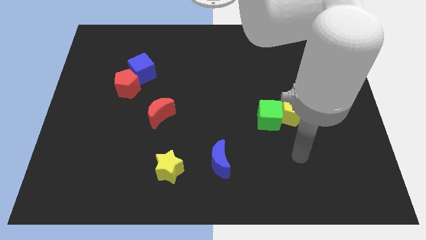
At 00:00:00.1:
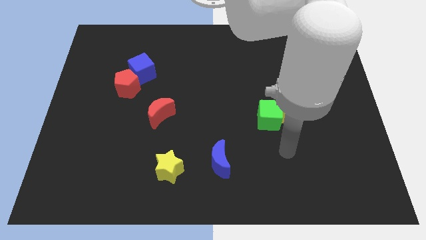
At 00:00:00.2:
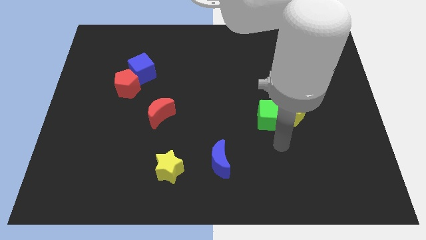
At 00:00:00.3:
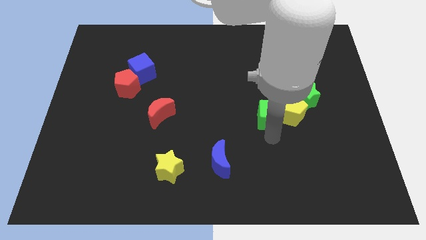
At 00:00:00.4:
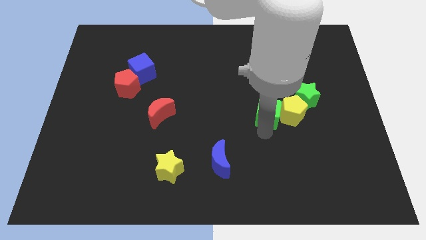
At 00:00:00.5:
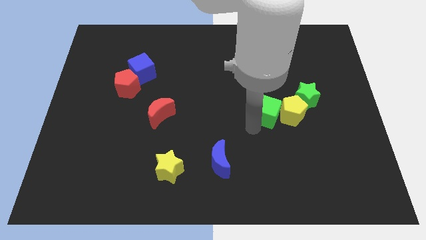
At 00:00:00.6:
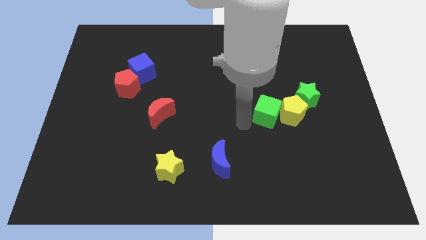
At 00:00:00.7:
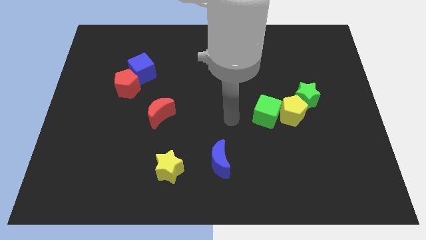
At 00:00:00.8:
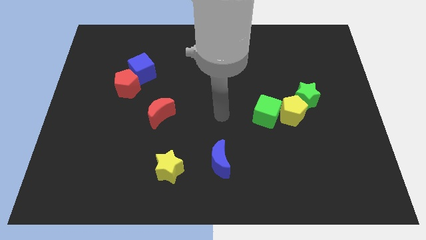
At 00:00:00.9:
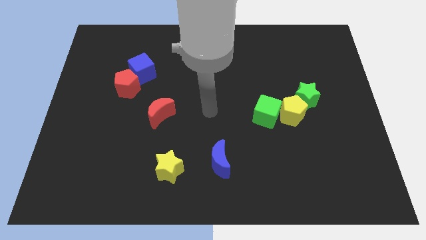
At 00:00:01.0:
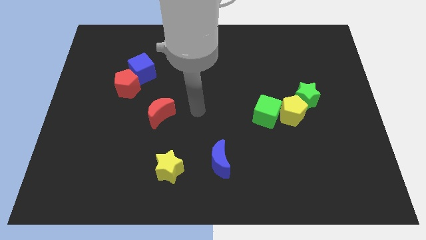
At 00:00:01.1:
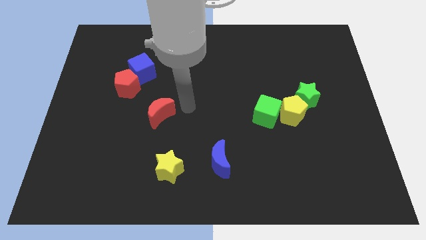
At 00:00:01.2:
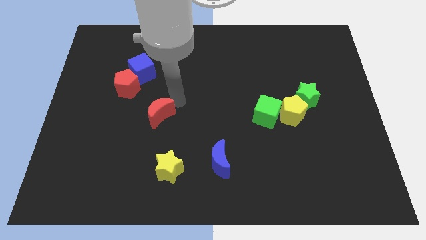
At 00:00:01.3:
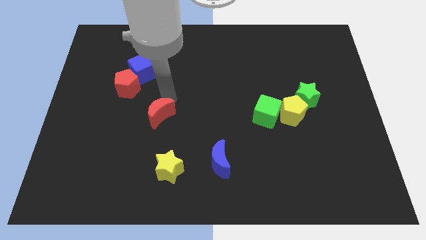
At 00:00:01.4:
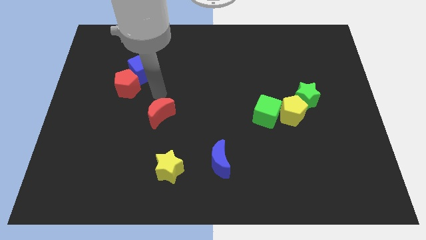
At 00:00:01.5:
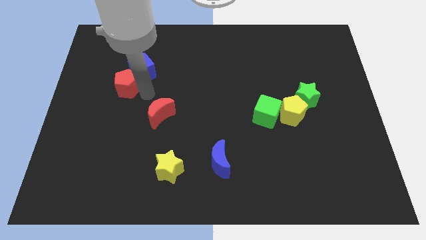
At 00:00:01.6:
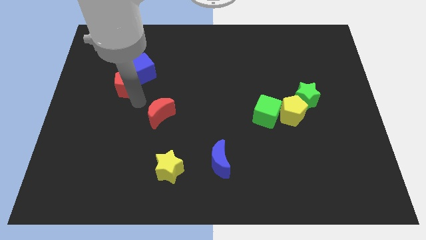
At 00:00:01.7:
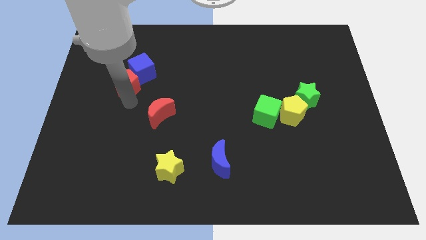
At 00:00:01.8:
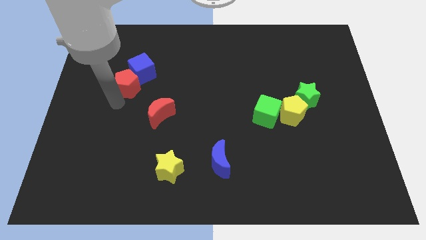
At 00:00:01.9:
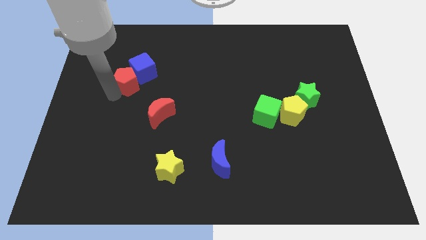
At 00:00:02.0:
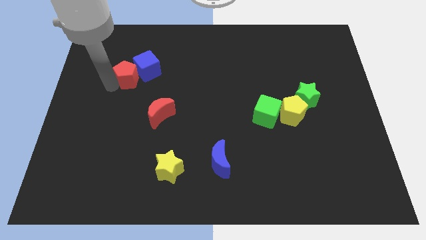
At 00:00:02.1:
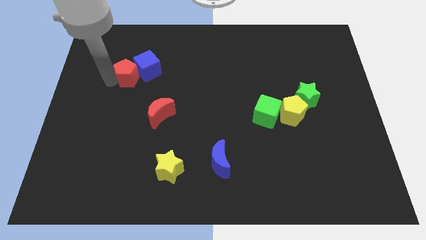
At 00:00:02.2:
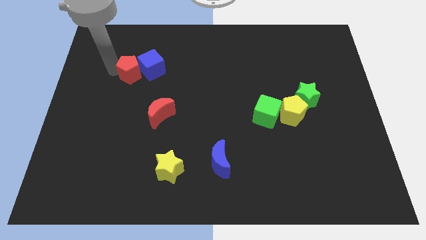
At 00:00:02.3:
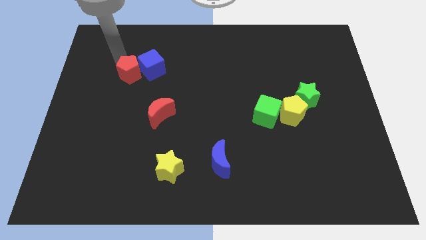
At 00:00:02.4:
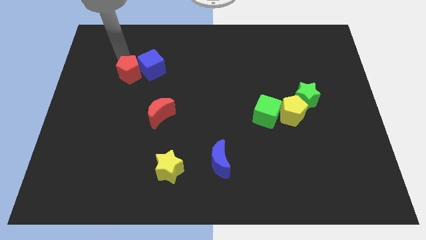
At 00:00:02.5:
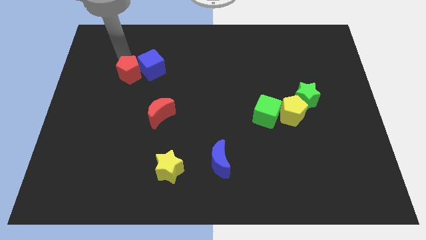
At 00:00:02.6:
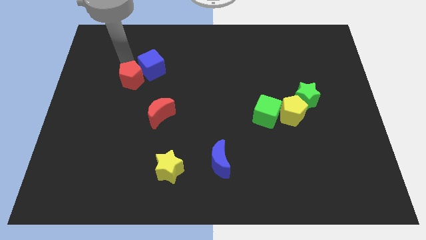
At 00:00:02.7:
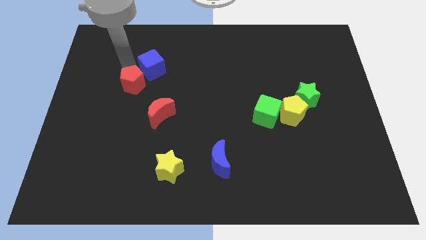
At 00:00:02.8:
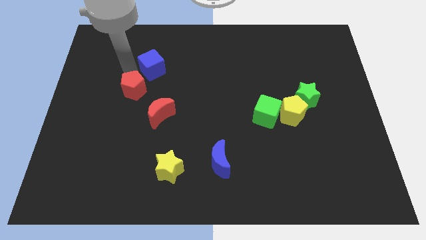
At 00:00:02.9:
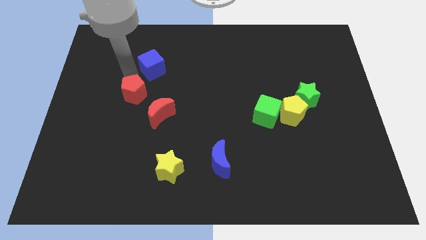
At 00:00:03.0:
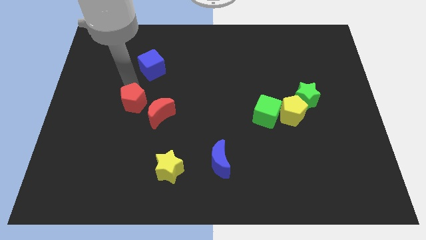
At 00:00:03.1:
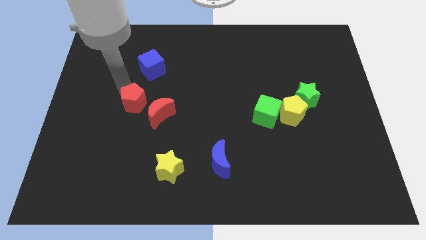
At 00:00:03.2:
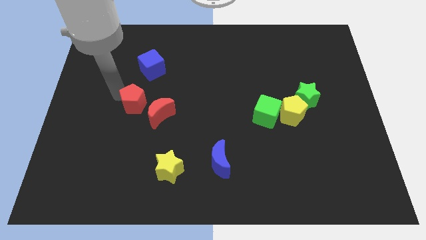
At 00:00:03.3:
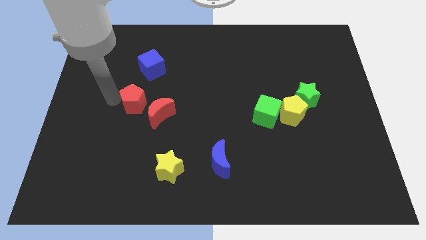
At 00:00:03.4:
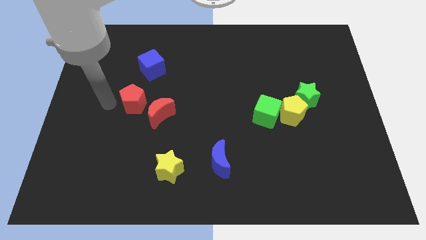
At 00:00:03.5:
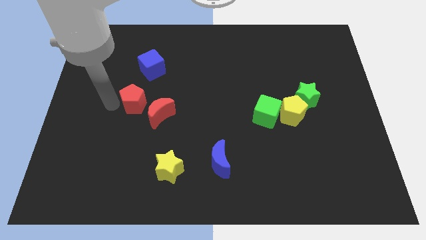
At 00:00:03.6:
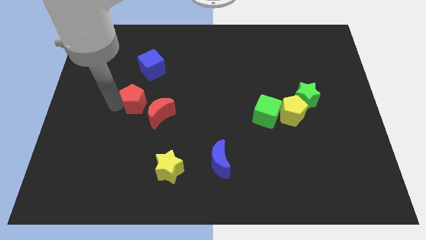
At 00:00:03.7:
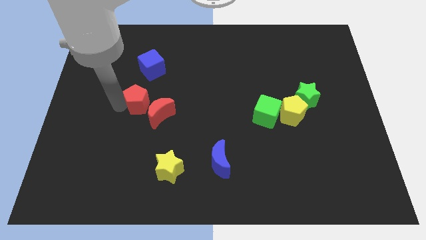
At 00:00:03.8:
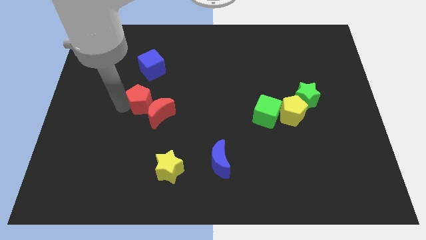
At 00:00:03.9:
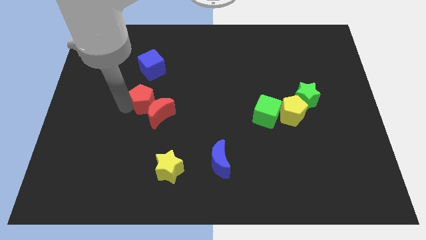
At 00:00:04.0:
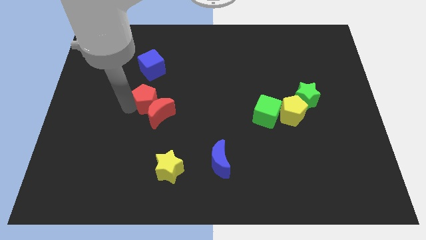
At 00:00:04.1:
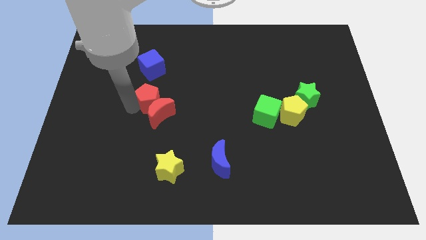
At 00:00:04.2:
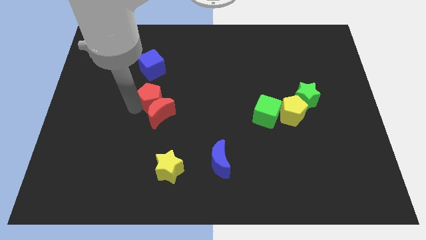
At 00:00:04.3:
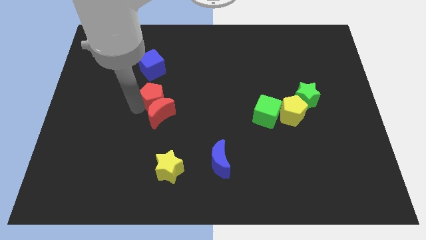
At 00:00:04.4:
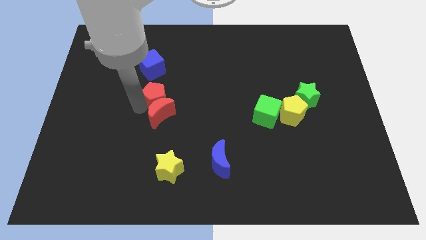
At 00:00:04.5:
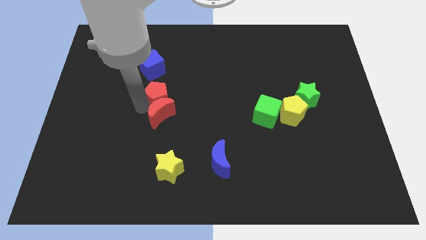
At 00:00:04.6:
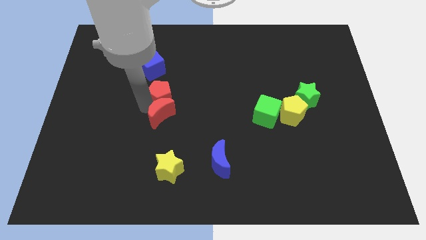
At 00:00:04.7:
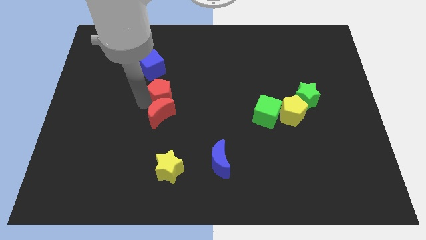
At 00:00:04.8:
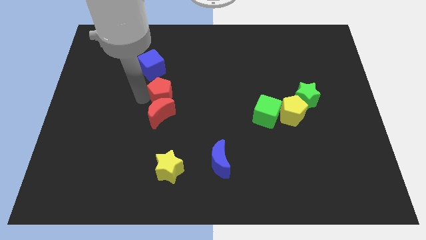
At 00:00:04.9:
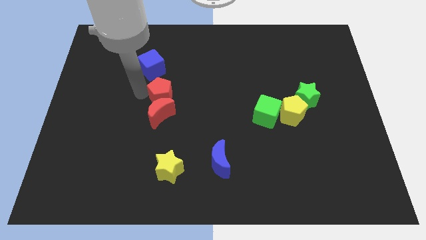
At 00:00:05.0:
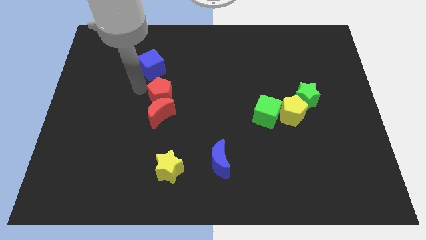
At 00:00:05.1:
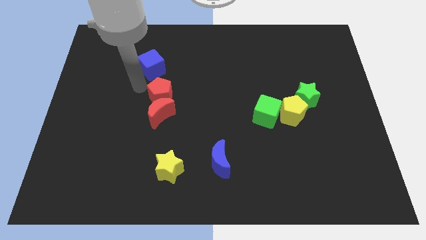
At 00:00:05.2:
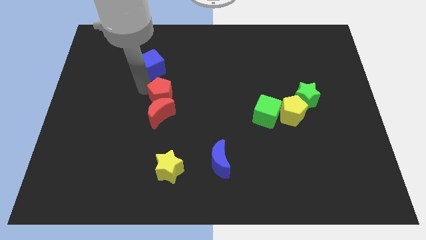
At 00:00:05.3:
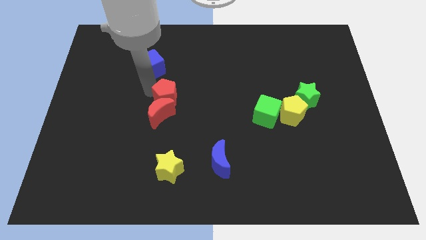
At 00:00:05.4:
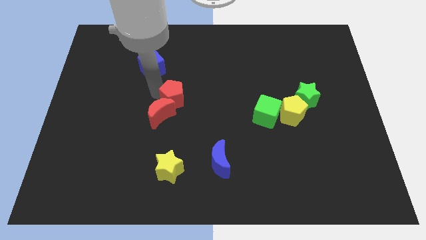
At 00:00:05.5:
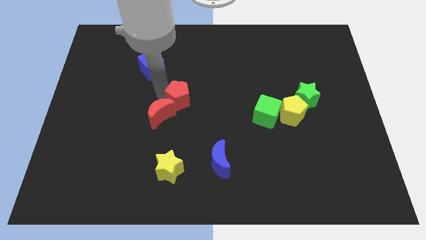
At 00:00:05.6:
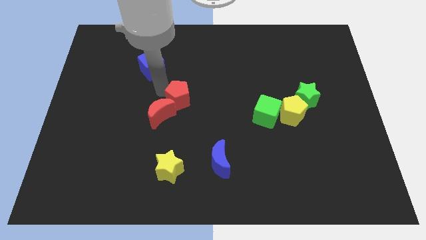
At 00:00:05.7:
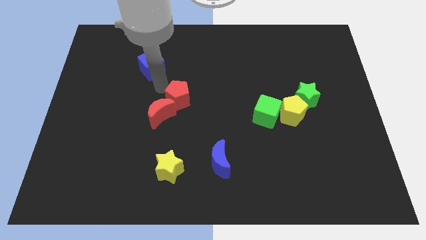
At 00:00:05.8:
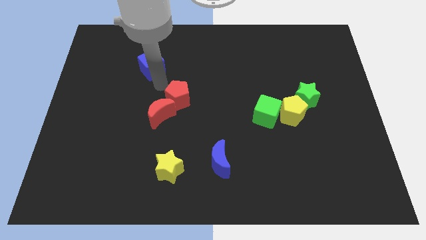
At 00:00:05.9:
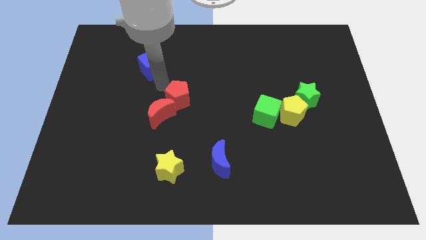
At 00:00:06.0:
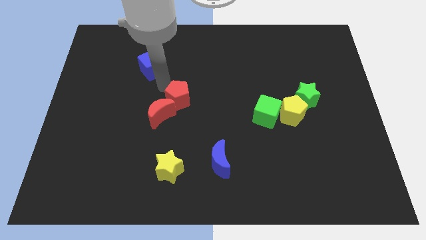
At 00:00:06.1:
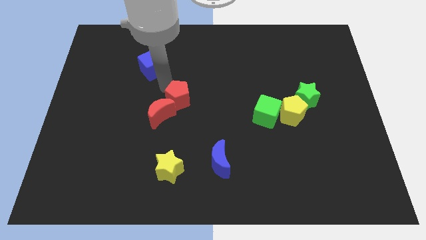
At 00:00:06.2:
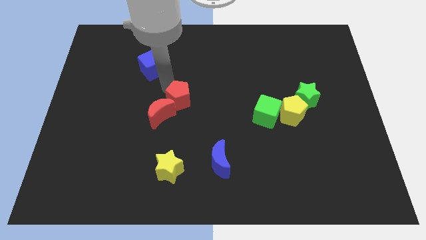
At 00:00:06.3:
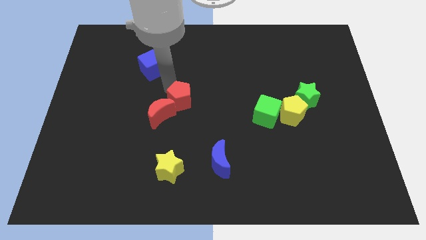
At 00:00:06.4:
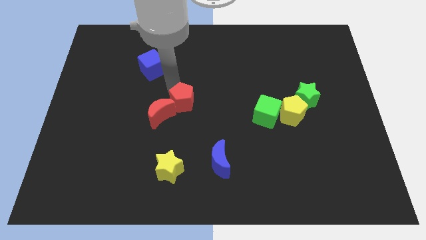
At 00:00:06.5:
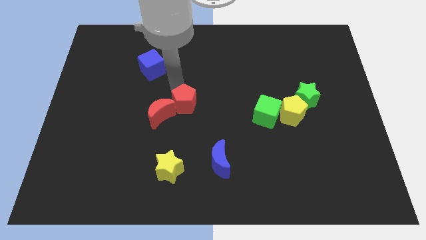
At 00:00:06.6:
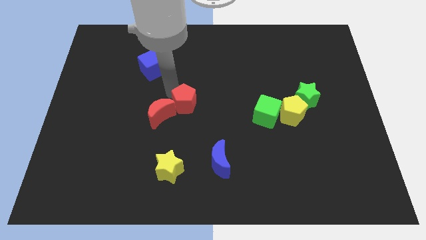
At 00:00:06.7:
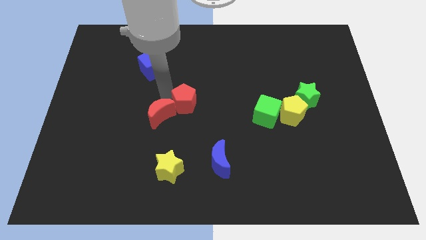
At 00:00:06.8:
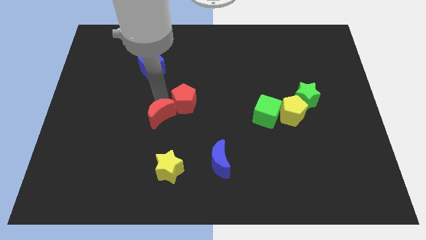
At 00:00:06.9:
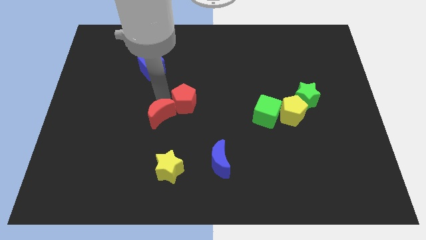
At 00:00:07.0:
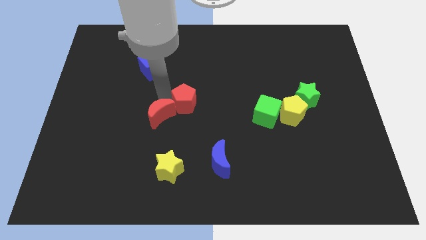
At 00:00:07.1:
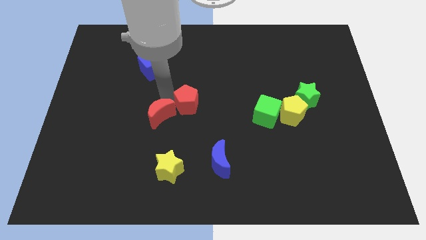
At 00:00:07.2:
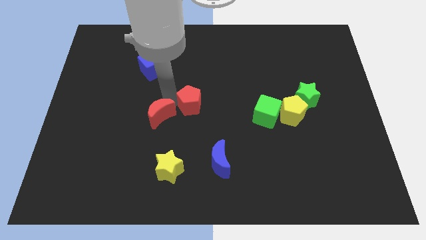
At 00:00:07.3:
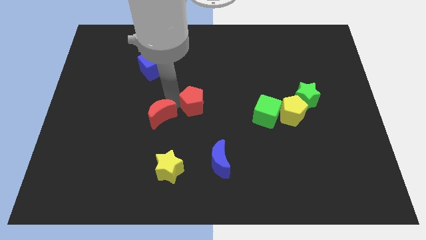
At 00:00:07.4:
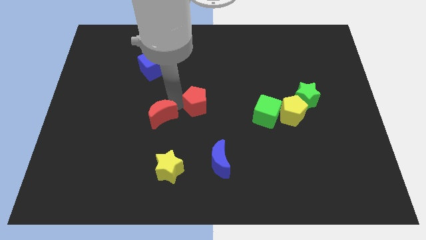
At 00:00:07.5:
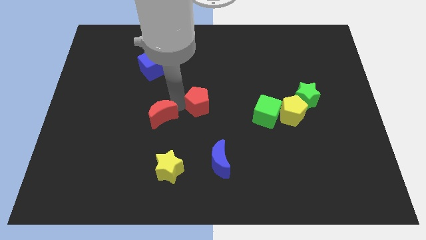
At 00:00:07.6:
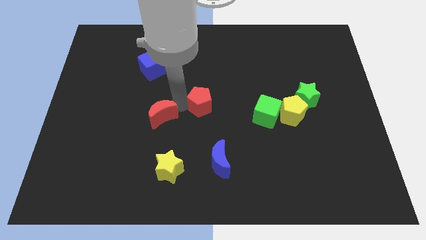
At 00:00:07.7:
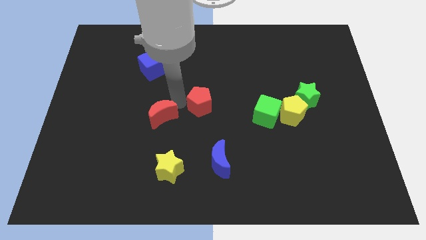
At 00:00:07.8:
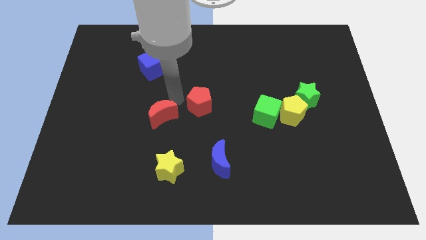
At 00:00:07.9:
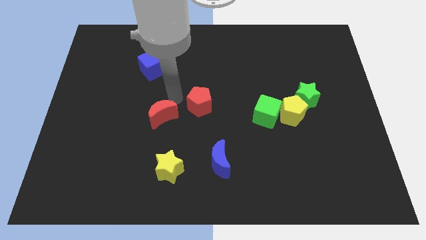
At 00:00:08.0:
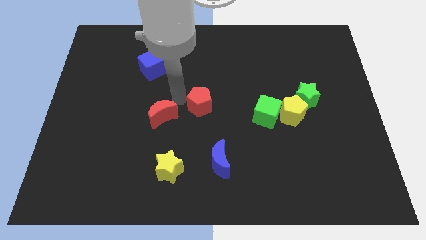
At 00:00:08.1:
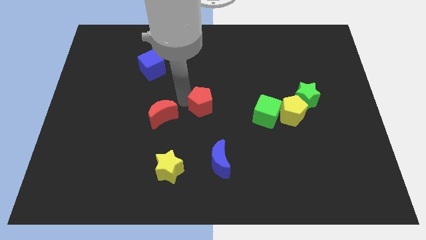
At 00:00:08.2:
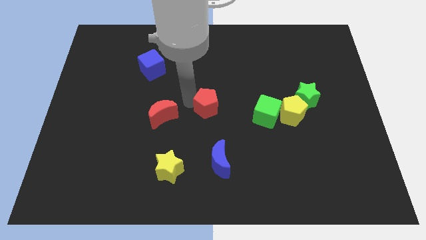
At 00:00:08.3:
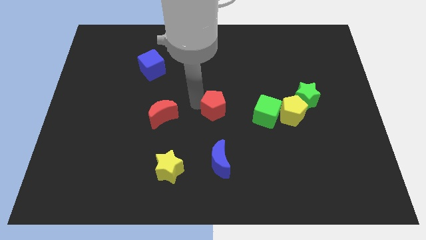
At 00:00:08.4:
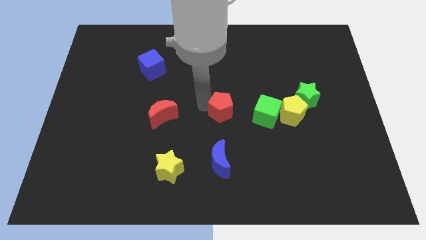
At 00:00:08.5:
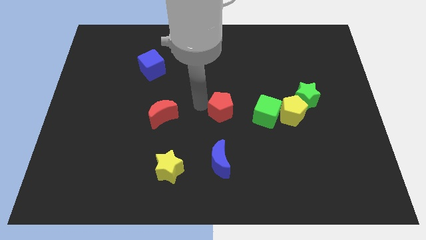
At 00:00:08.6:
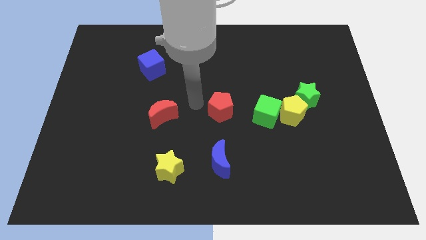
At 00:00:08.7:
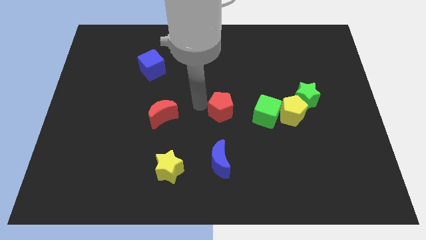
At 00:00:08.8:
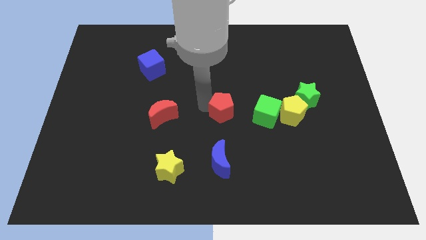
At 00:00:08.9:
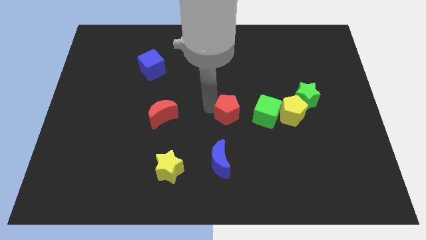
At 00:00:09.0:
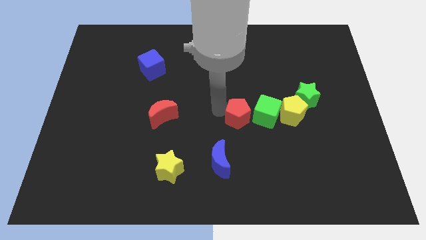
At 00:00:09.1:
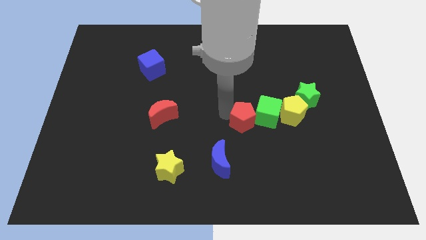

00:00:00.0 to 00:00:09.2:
put the red pentagon close to the green cube
